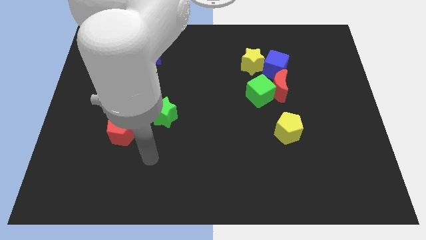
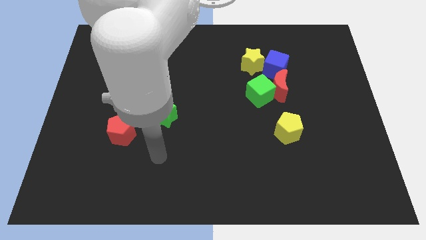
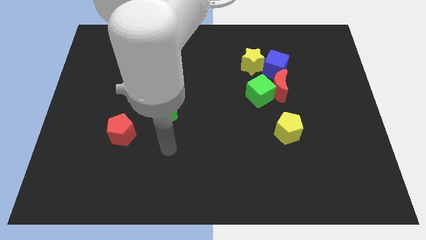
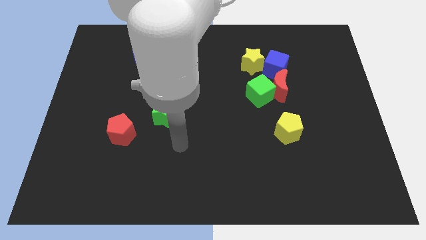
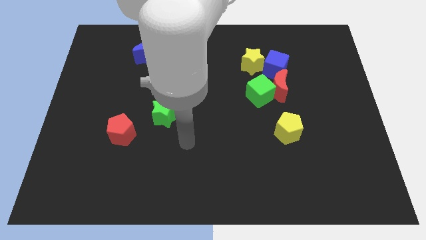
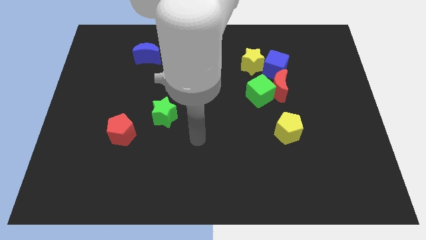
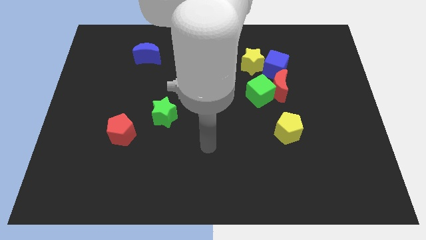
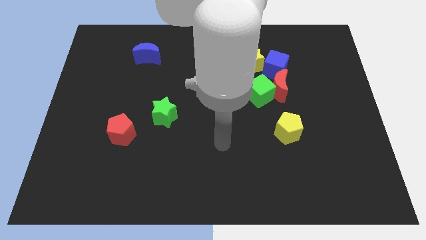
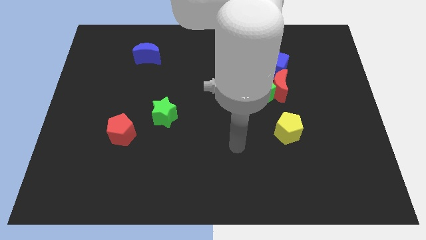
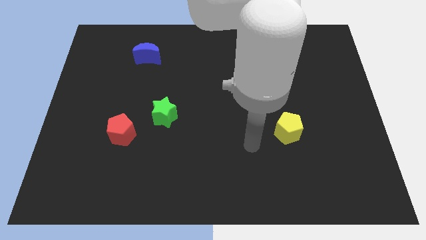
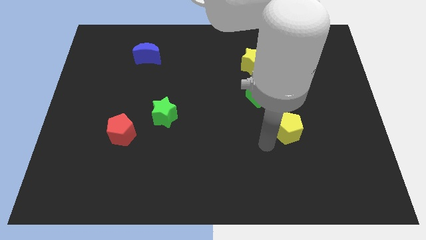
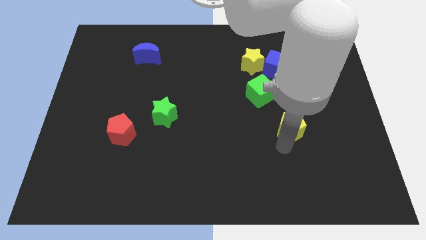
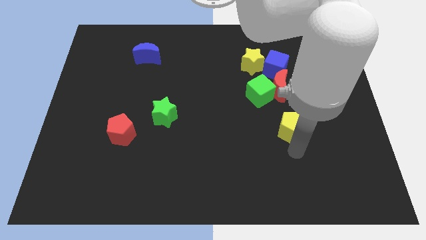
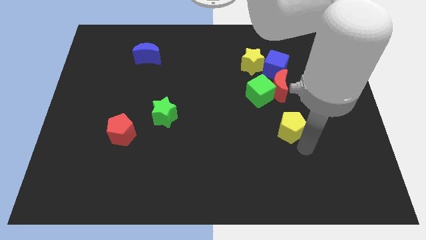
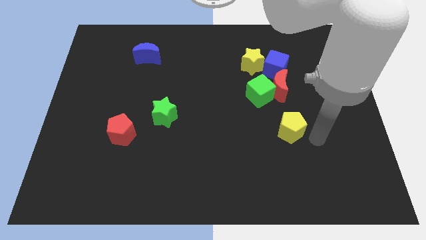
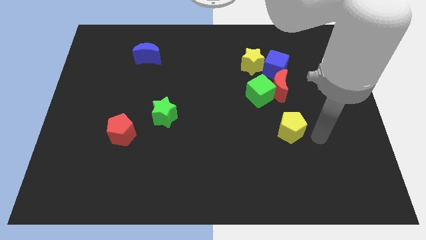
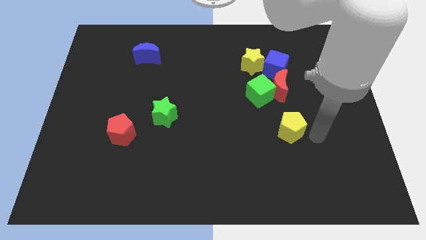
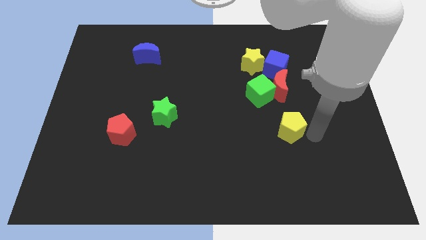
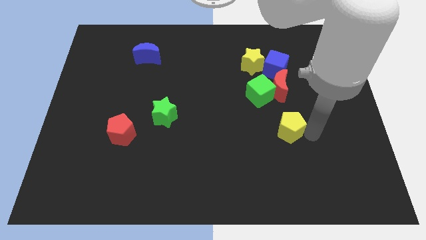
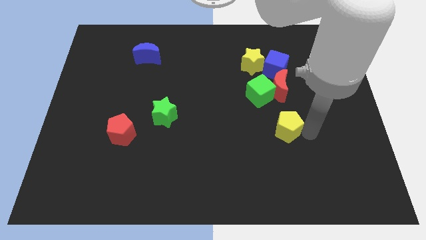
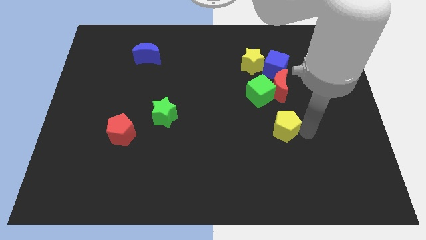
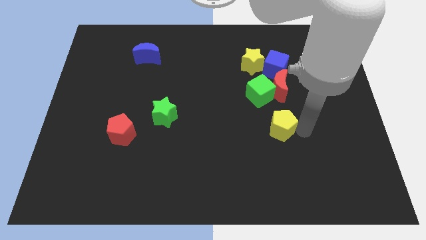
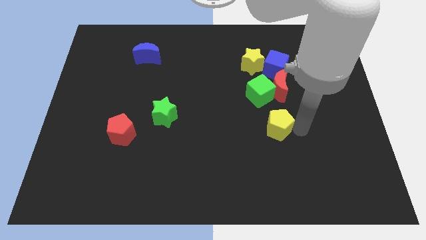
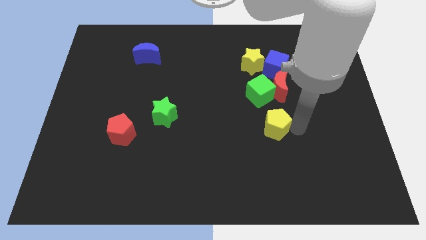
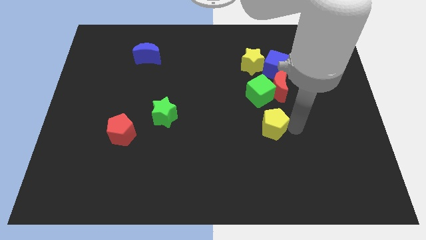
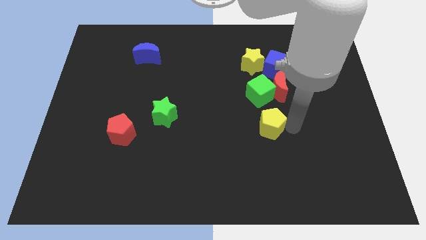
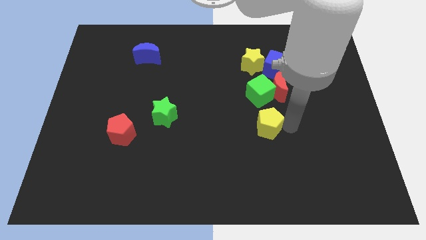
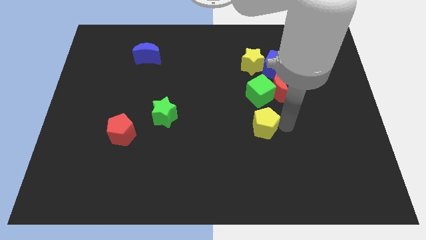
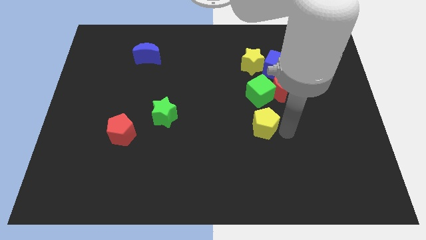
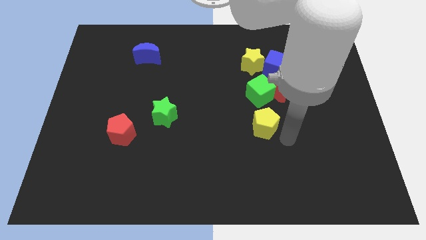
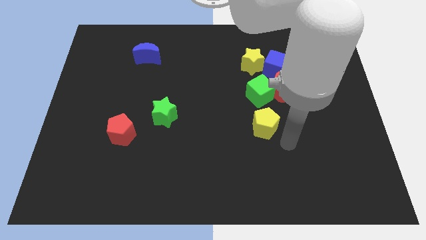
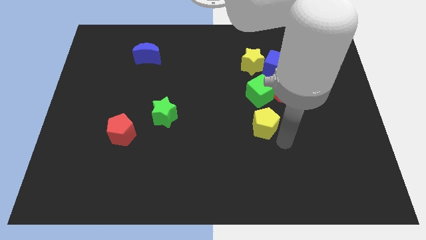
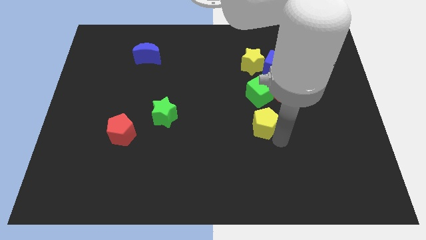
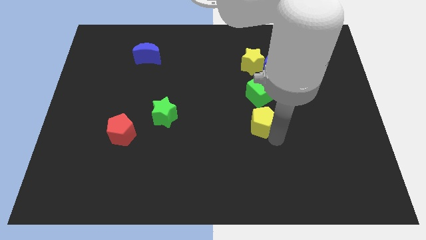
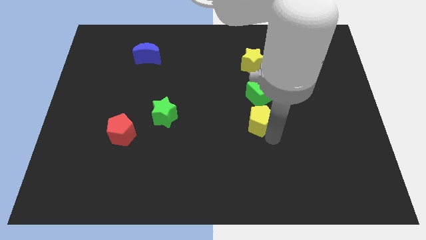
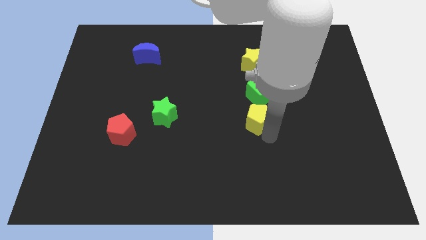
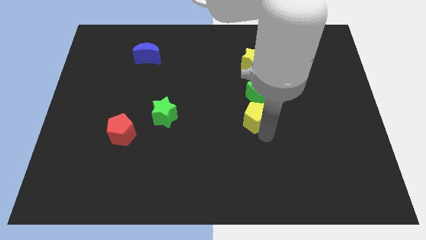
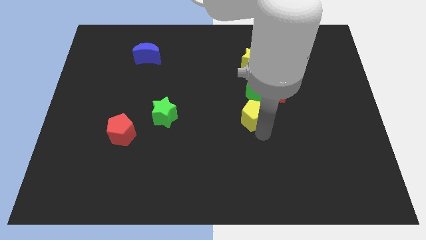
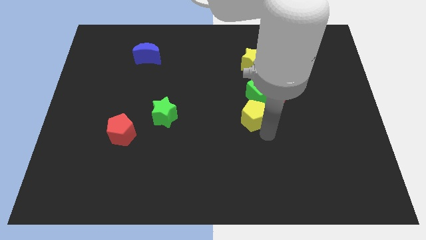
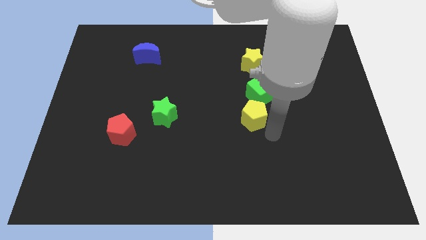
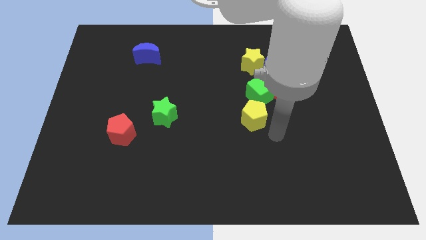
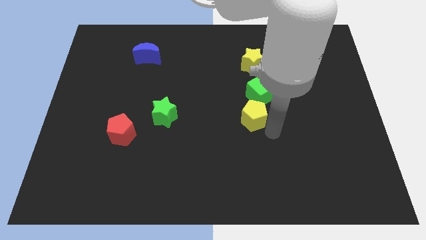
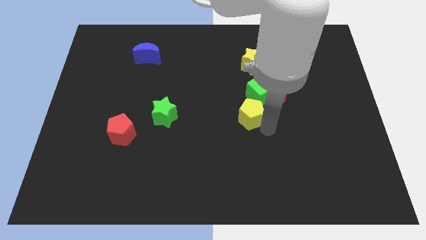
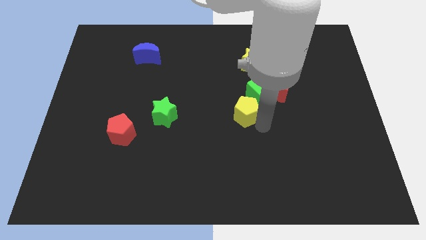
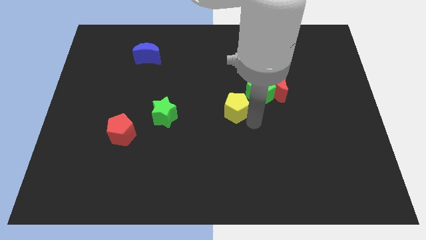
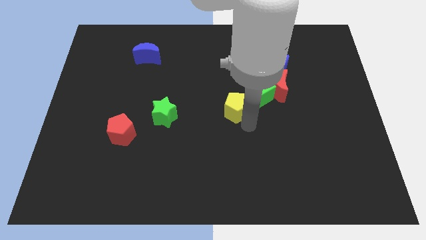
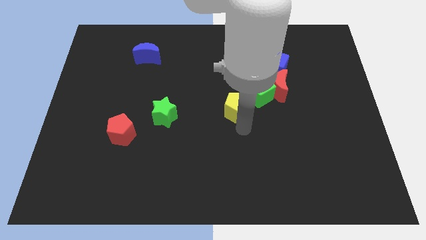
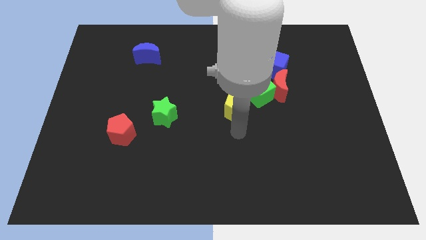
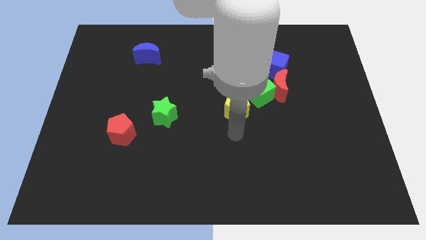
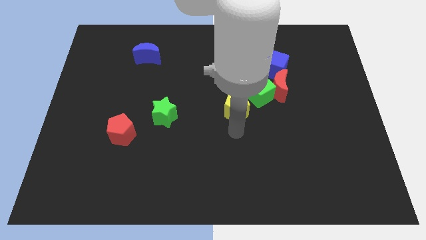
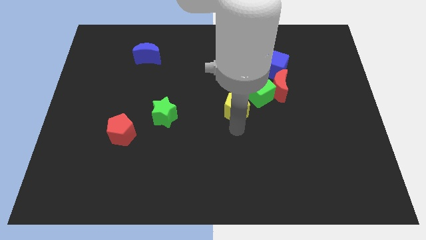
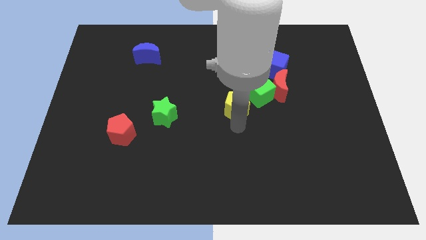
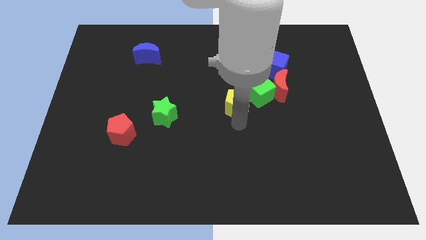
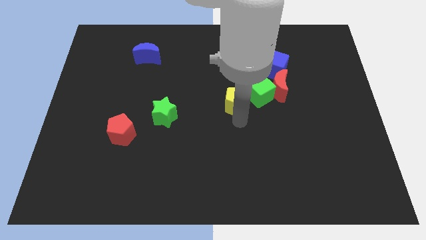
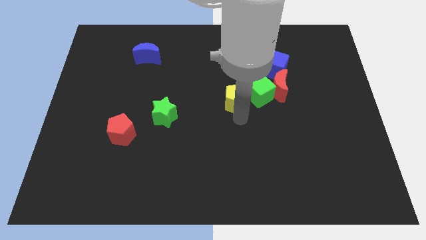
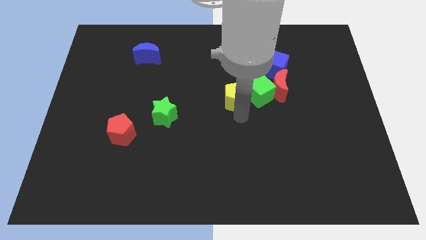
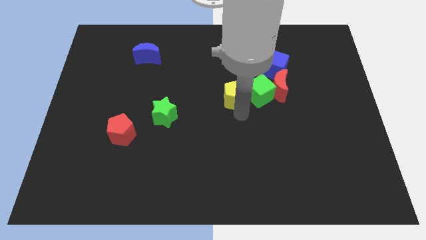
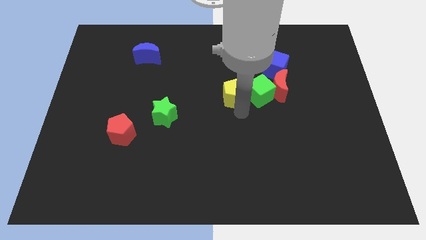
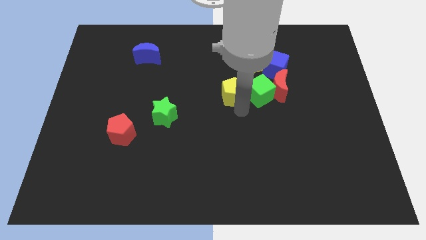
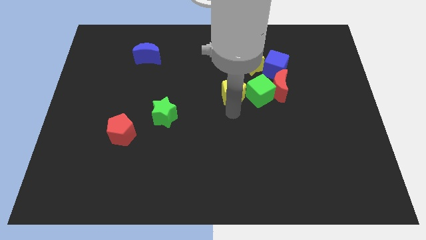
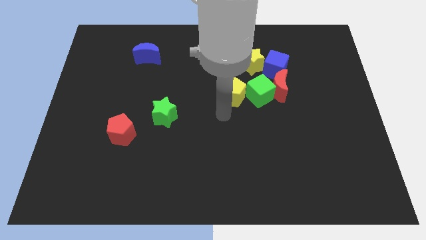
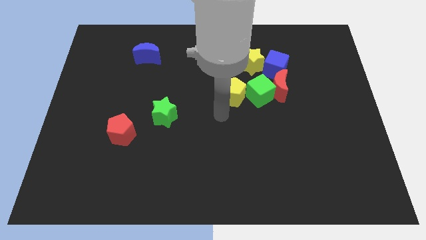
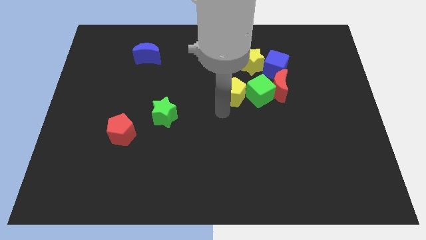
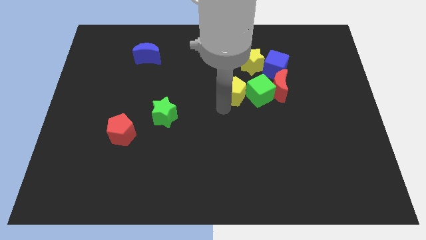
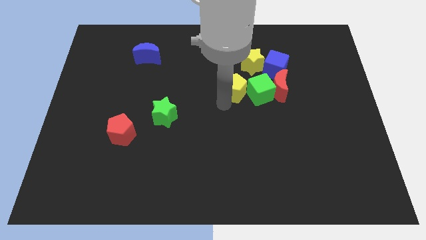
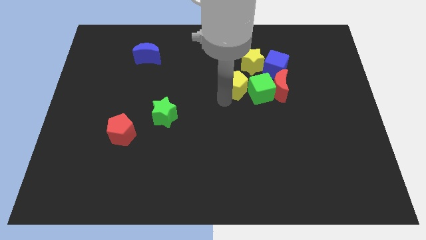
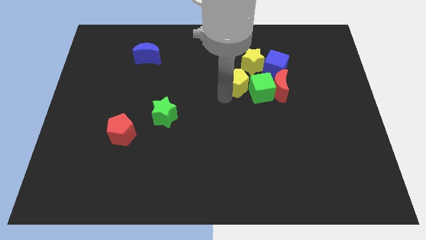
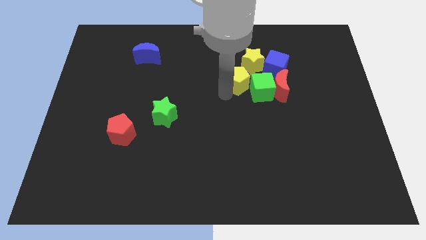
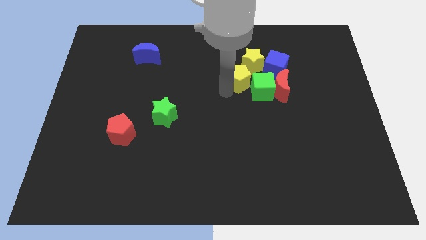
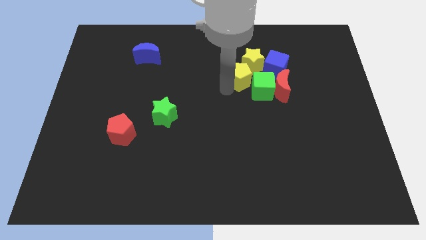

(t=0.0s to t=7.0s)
move the yellow pentagon next to the yellow star
